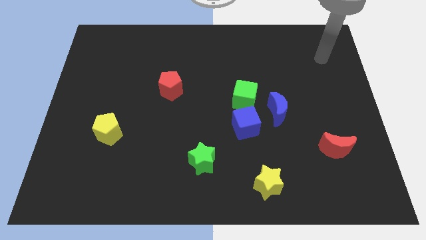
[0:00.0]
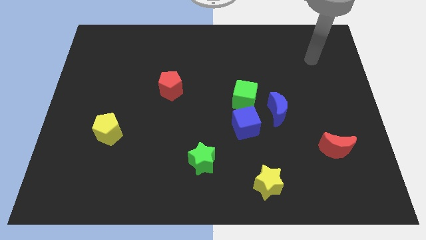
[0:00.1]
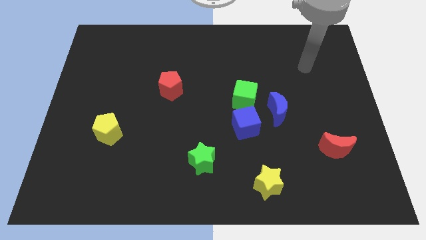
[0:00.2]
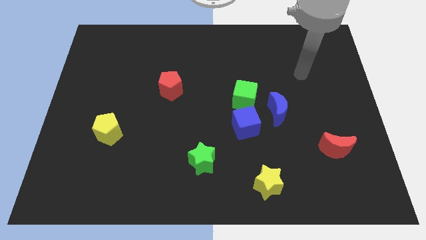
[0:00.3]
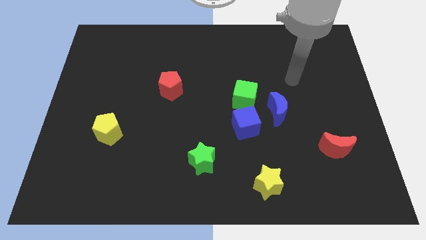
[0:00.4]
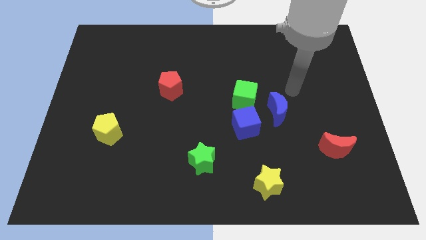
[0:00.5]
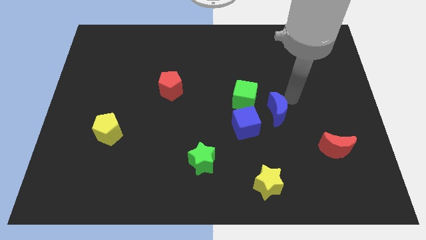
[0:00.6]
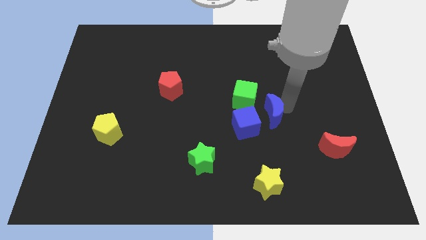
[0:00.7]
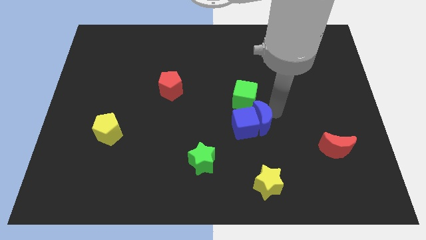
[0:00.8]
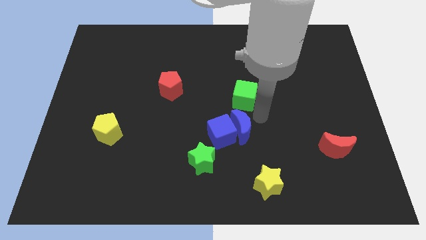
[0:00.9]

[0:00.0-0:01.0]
pull the green cube apart from the blue cube and blue moon

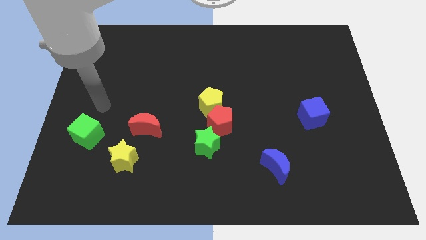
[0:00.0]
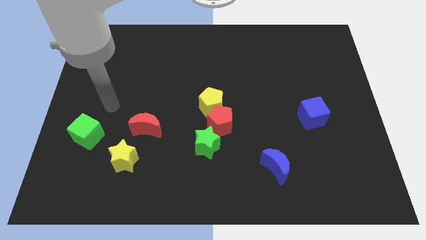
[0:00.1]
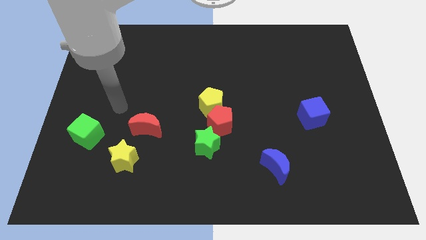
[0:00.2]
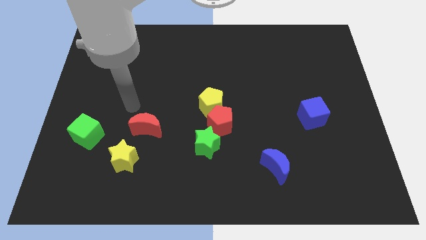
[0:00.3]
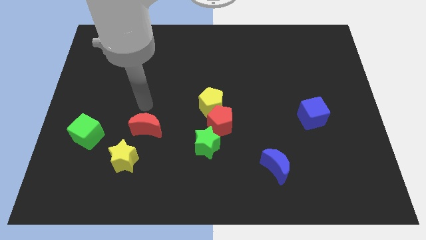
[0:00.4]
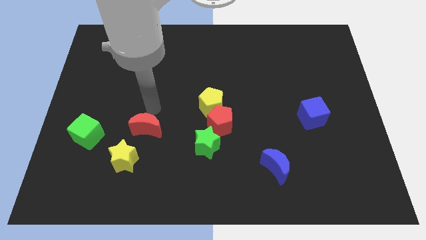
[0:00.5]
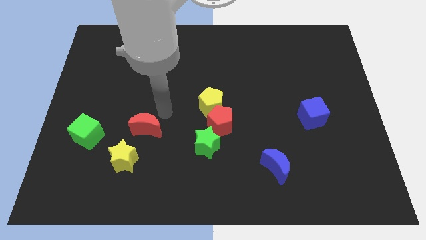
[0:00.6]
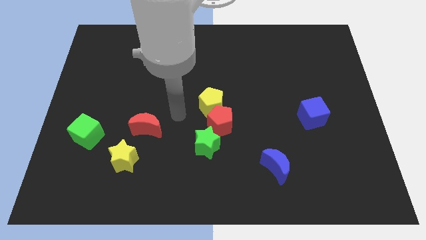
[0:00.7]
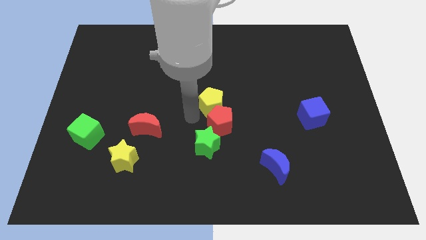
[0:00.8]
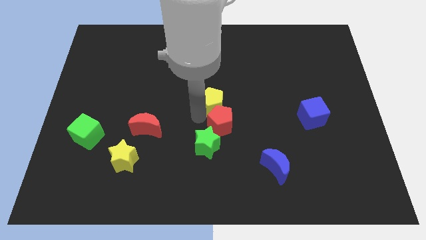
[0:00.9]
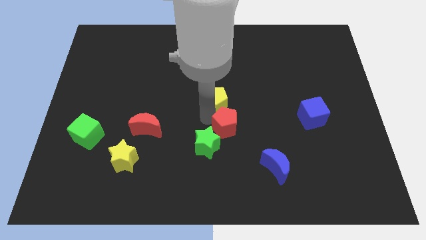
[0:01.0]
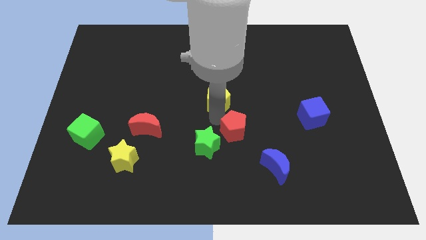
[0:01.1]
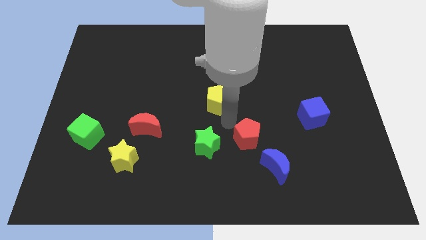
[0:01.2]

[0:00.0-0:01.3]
separate the yellow pentagon from the red pentagon

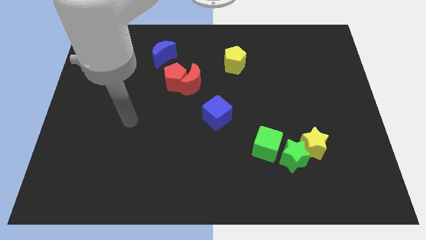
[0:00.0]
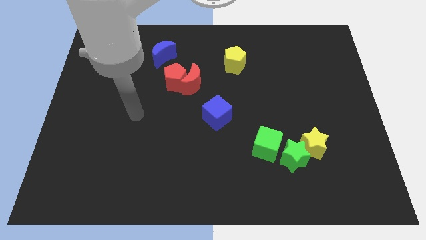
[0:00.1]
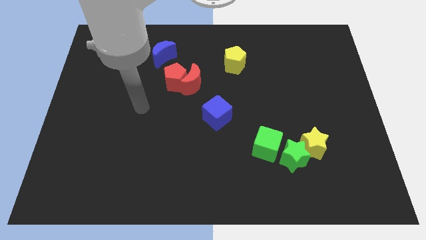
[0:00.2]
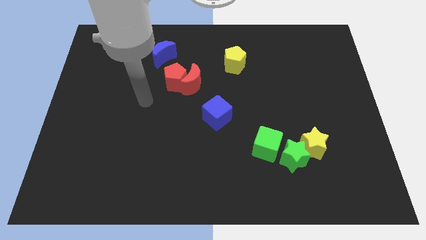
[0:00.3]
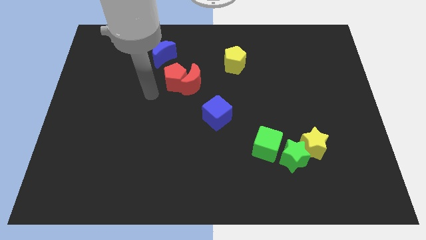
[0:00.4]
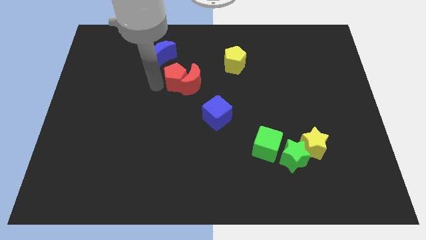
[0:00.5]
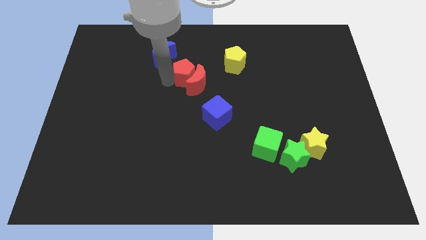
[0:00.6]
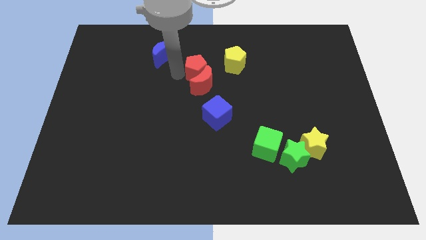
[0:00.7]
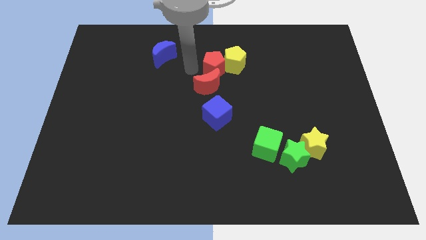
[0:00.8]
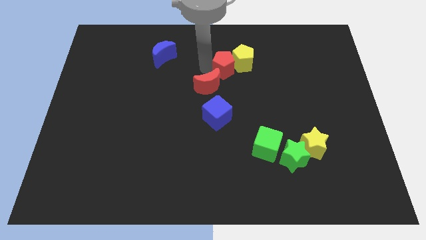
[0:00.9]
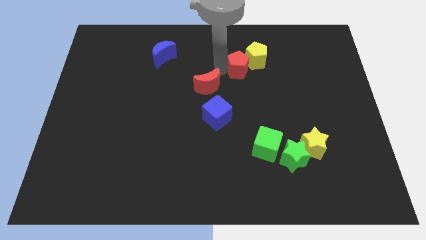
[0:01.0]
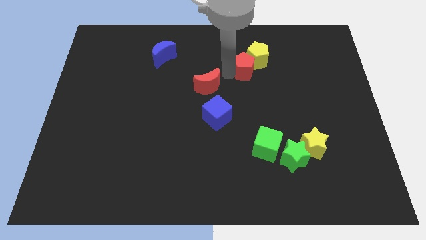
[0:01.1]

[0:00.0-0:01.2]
move the red moon away from the red pentagon

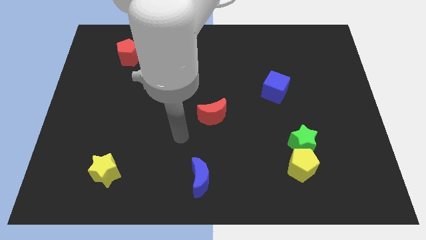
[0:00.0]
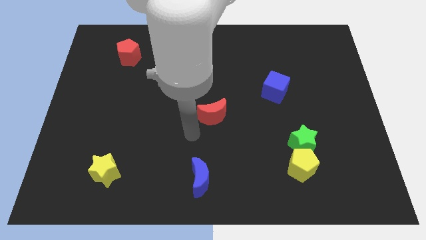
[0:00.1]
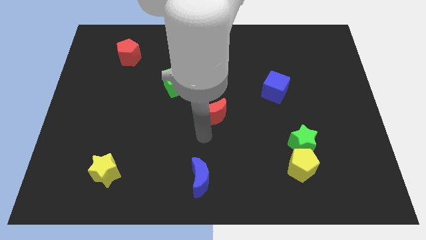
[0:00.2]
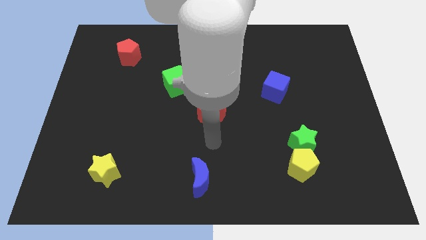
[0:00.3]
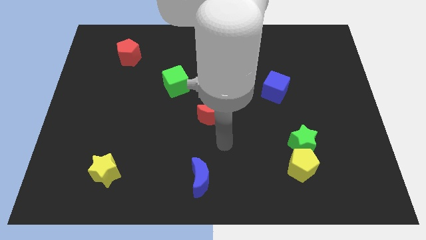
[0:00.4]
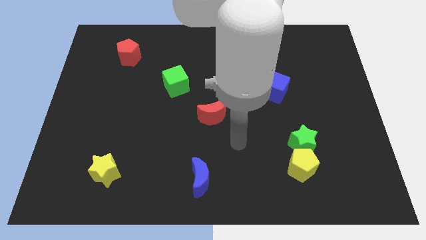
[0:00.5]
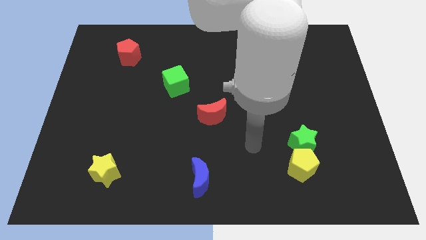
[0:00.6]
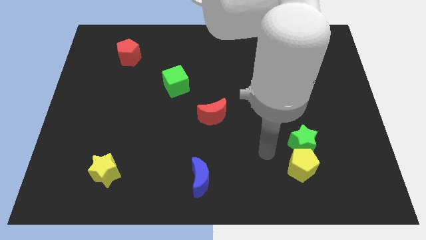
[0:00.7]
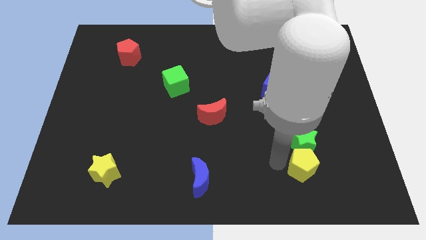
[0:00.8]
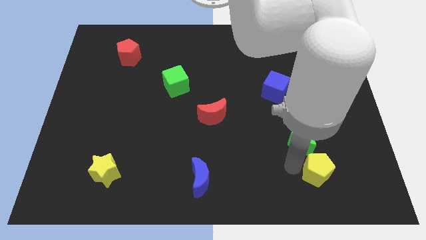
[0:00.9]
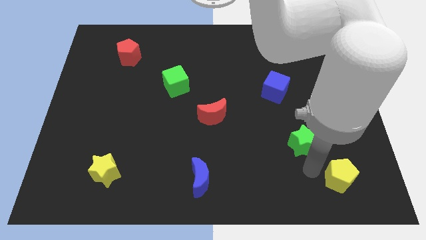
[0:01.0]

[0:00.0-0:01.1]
separate the green star from the yellow pentagon

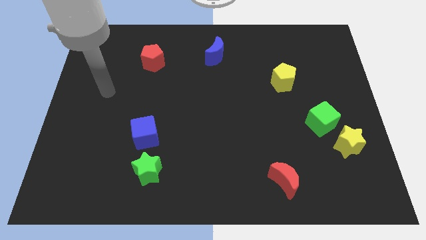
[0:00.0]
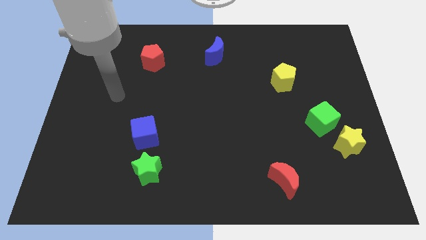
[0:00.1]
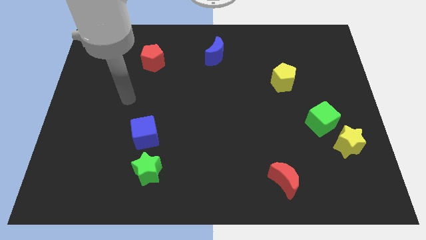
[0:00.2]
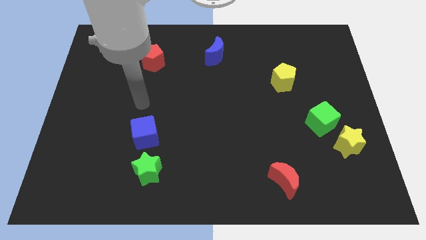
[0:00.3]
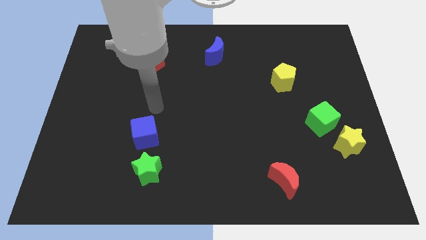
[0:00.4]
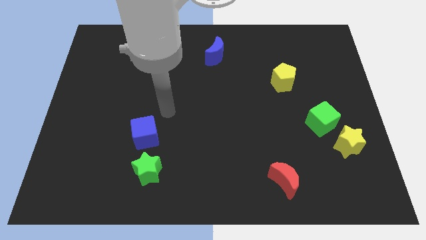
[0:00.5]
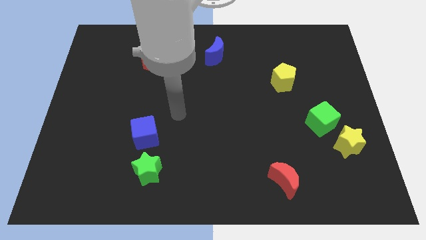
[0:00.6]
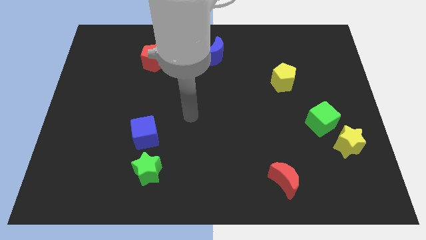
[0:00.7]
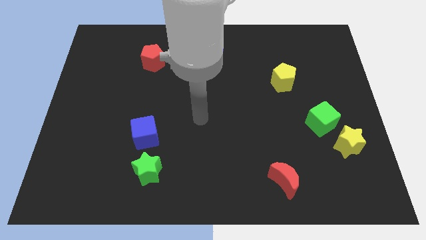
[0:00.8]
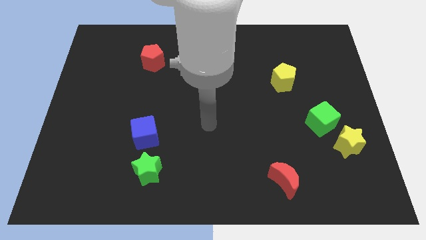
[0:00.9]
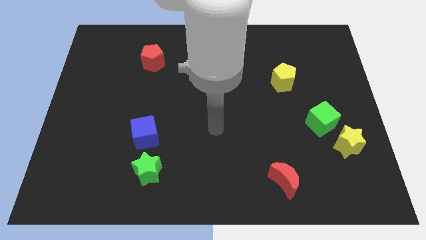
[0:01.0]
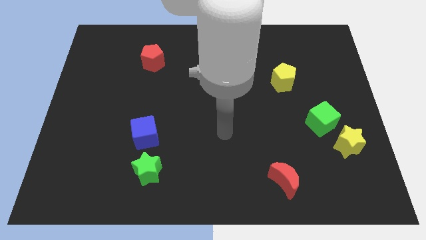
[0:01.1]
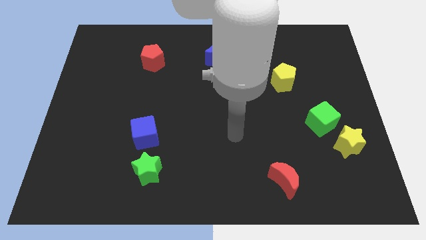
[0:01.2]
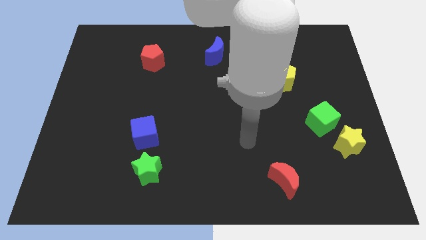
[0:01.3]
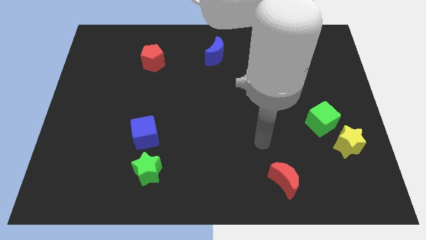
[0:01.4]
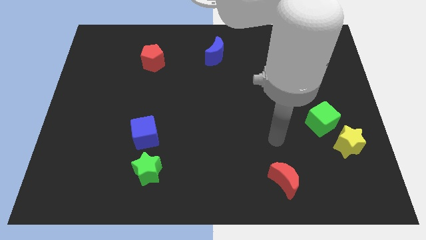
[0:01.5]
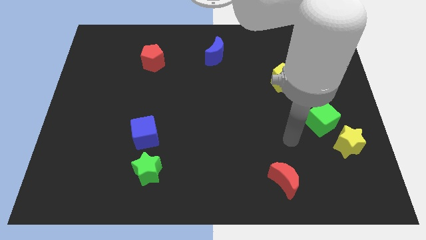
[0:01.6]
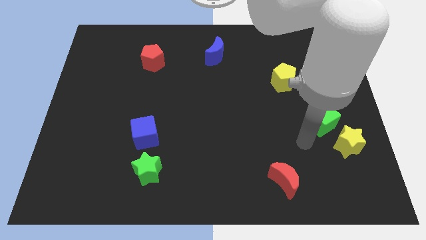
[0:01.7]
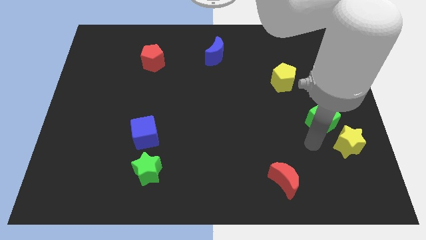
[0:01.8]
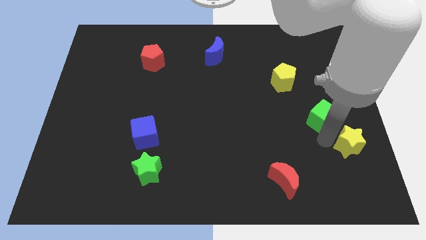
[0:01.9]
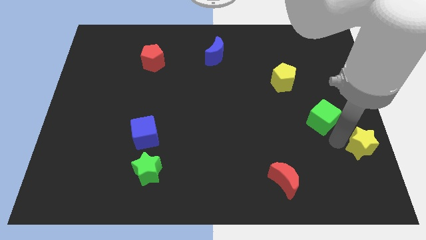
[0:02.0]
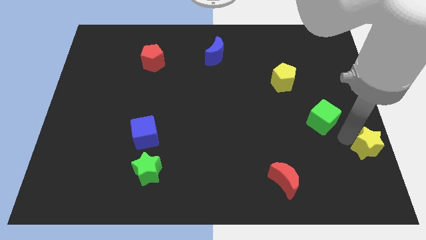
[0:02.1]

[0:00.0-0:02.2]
separate the green cube from the yellow star

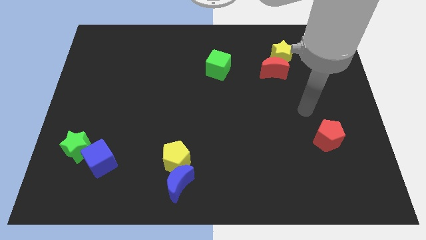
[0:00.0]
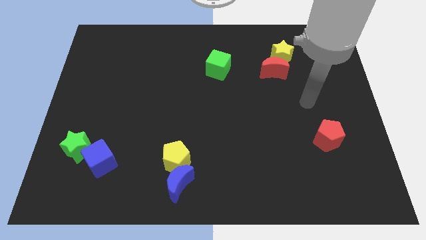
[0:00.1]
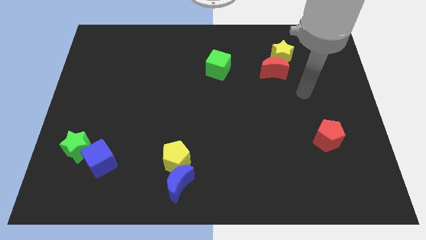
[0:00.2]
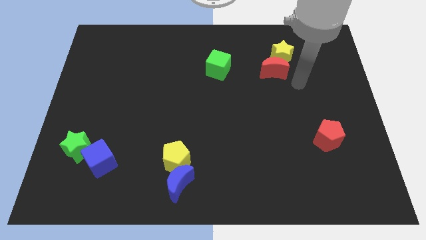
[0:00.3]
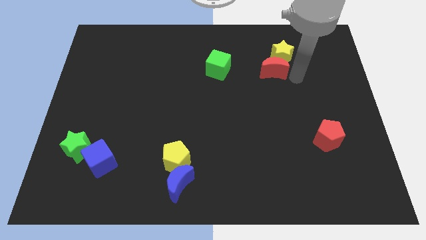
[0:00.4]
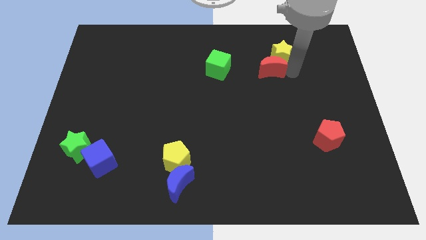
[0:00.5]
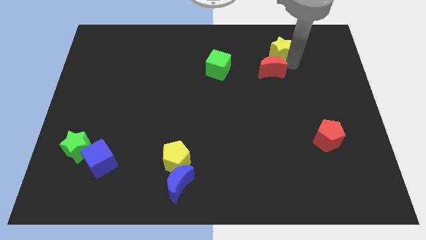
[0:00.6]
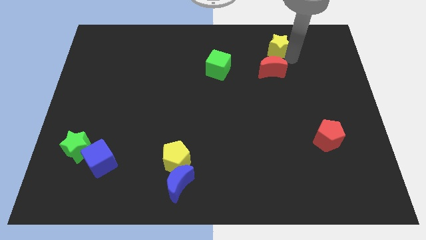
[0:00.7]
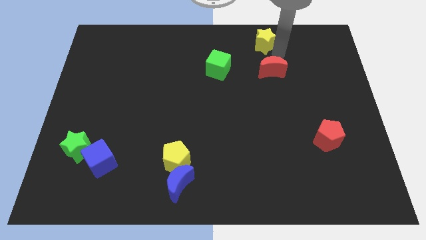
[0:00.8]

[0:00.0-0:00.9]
pull the red moon apart from the yellow star

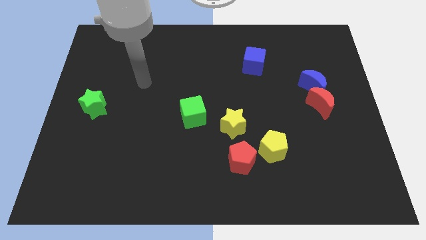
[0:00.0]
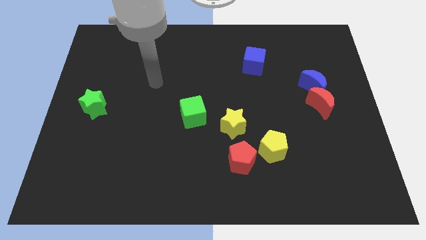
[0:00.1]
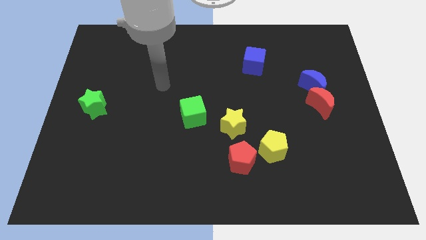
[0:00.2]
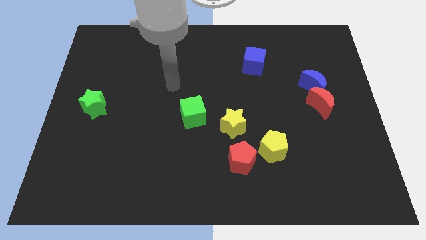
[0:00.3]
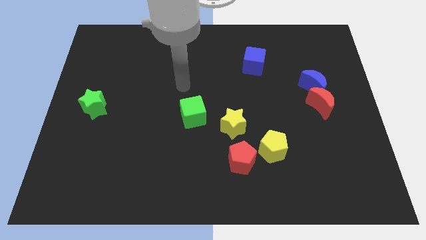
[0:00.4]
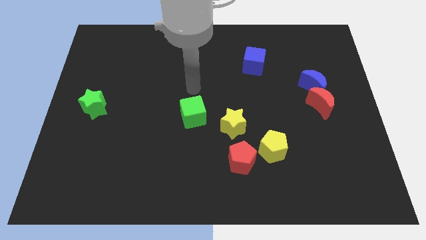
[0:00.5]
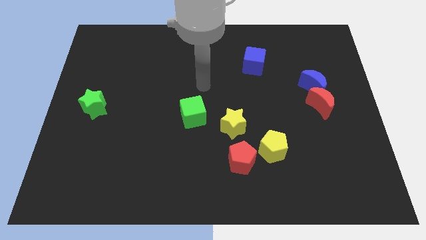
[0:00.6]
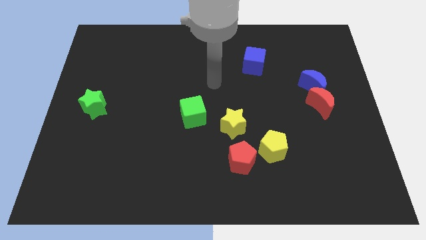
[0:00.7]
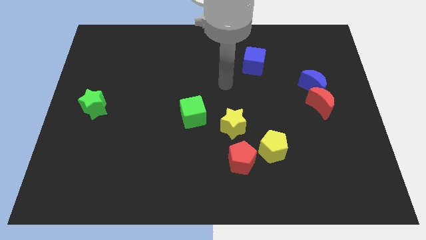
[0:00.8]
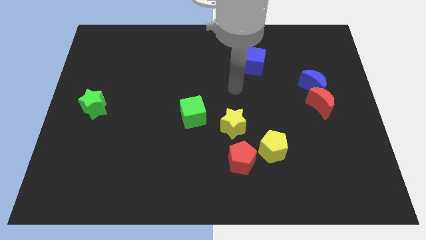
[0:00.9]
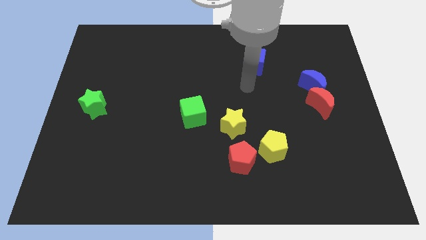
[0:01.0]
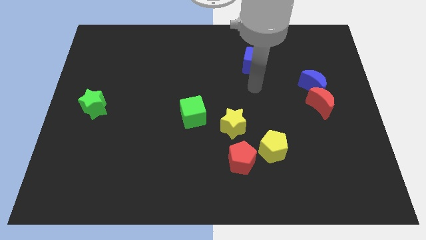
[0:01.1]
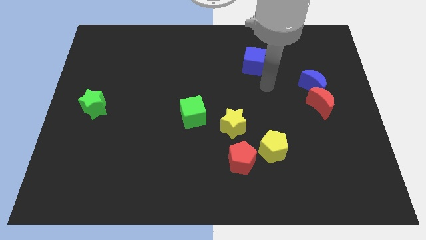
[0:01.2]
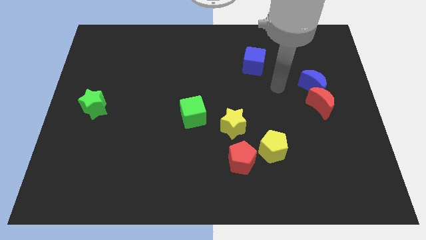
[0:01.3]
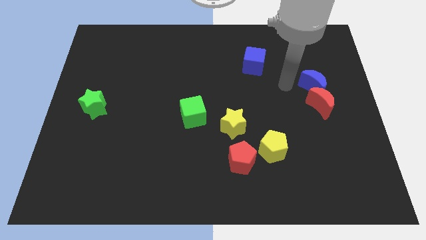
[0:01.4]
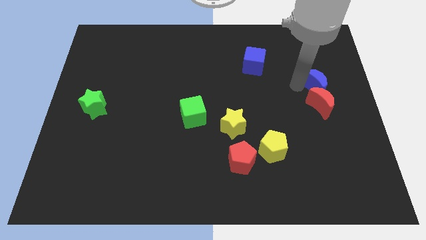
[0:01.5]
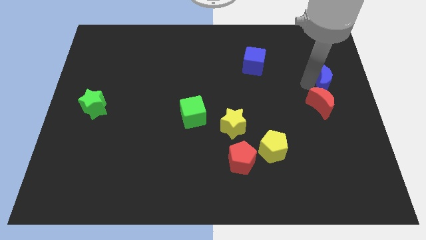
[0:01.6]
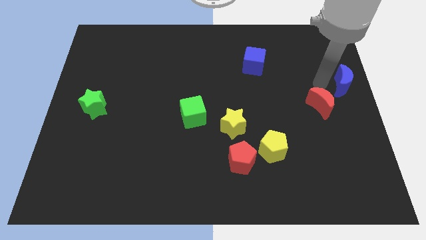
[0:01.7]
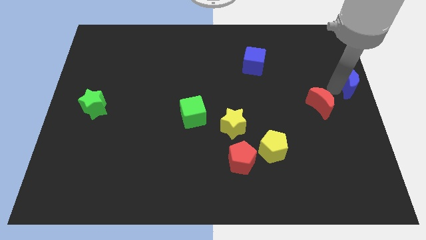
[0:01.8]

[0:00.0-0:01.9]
pull the red moon apart from the blue moon
